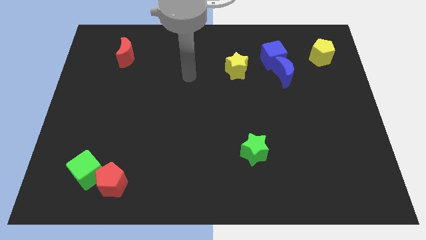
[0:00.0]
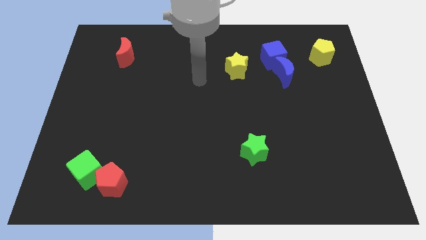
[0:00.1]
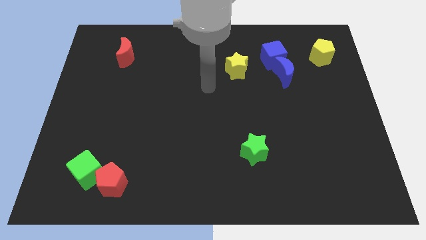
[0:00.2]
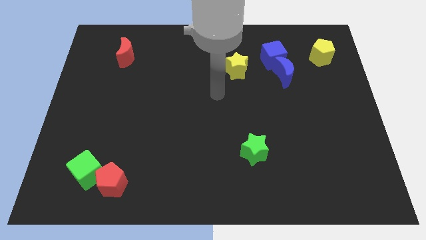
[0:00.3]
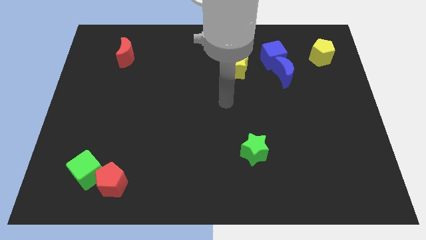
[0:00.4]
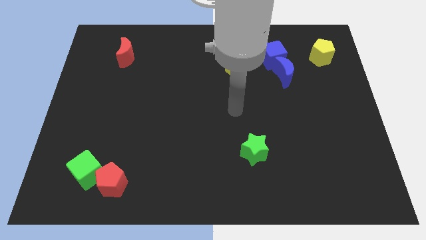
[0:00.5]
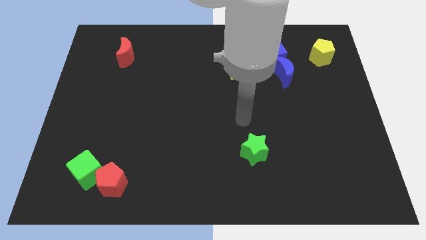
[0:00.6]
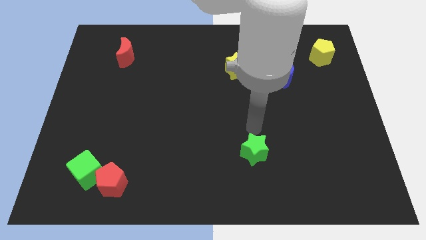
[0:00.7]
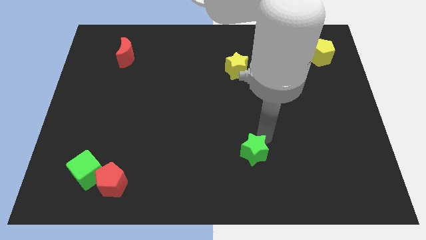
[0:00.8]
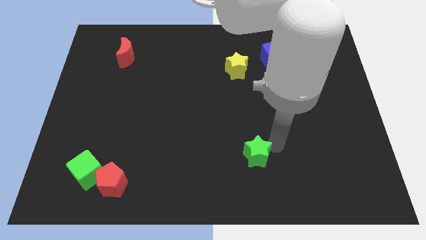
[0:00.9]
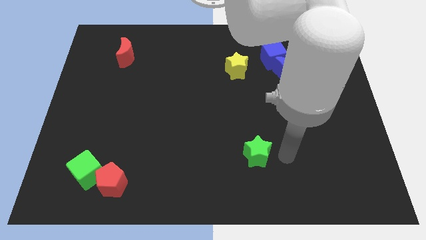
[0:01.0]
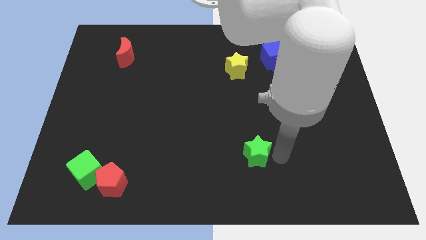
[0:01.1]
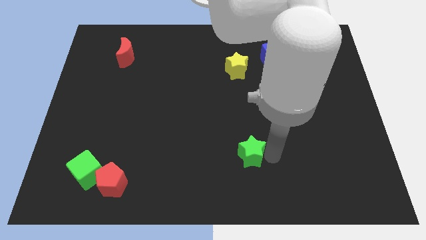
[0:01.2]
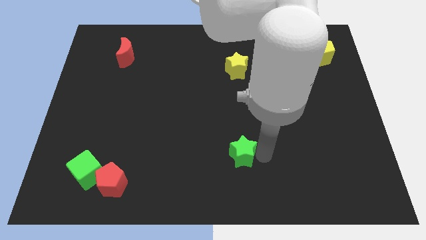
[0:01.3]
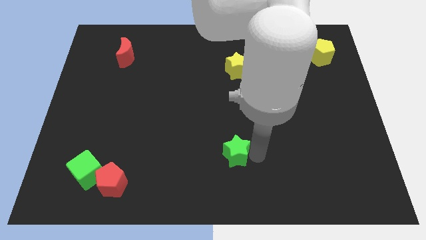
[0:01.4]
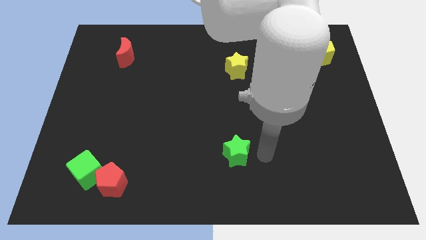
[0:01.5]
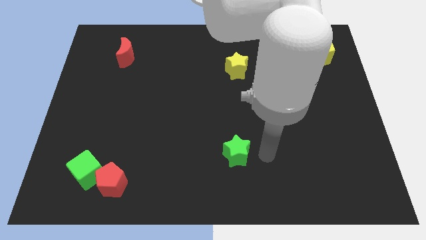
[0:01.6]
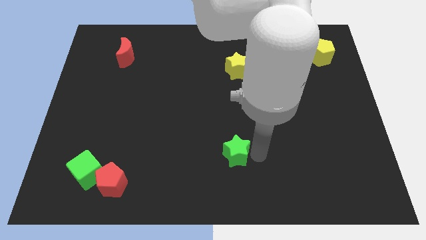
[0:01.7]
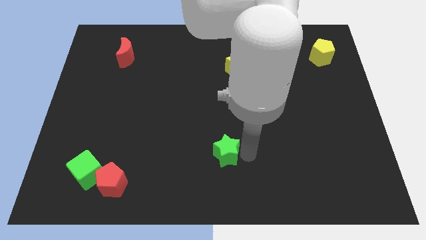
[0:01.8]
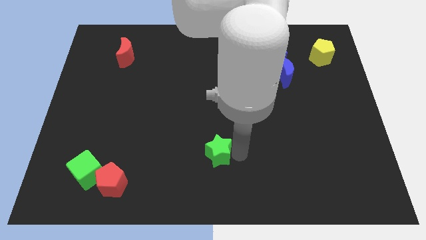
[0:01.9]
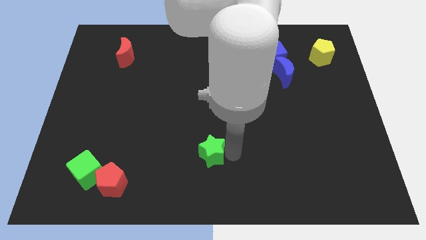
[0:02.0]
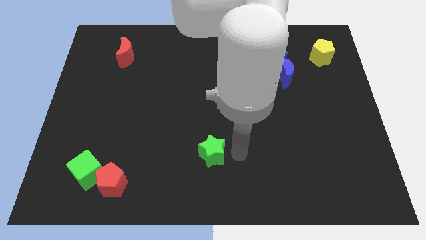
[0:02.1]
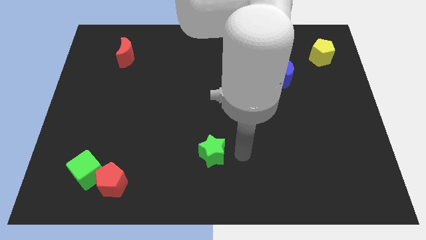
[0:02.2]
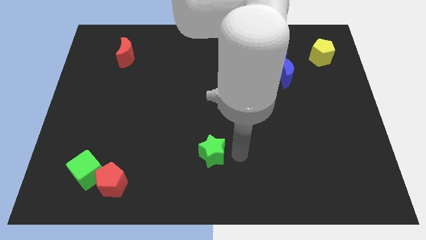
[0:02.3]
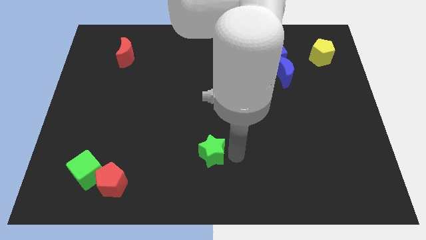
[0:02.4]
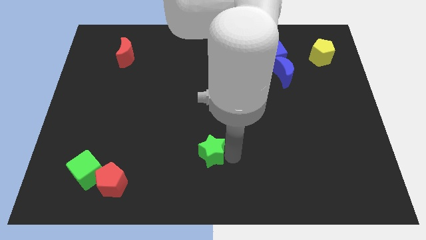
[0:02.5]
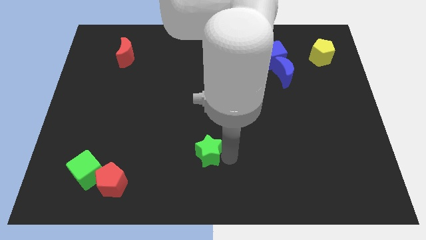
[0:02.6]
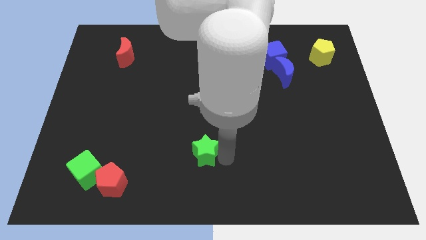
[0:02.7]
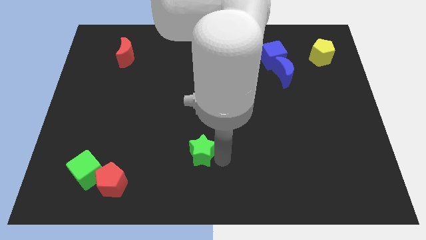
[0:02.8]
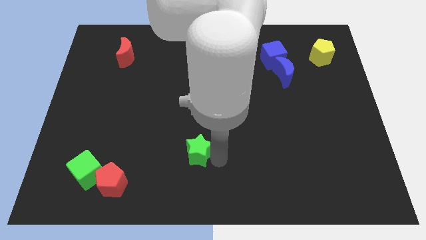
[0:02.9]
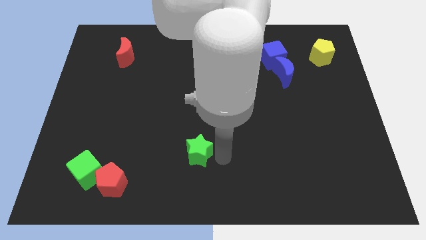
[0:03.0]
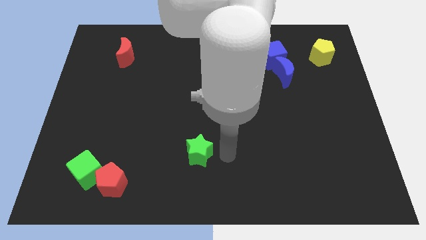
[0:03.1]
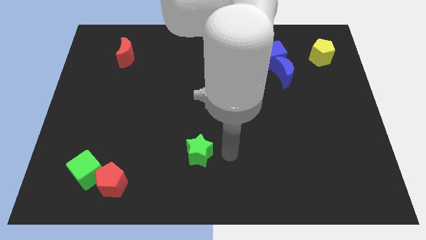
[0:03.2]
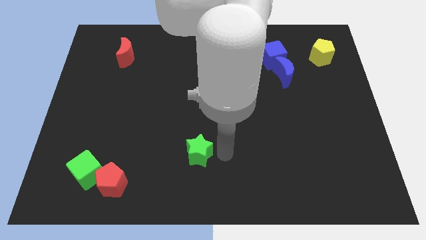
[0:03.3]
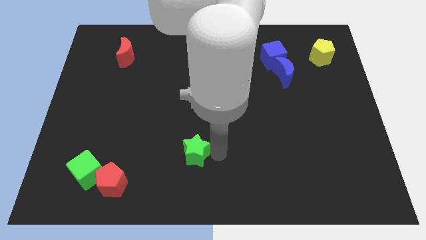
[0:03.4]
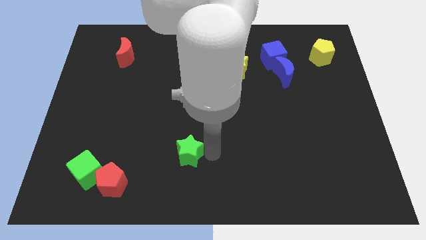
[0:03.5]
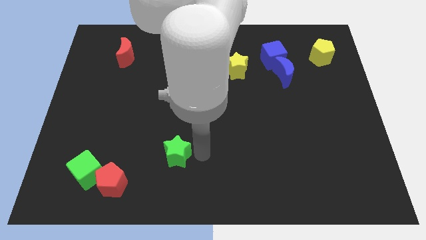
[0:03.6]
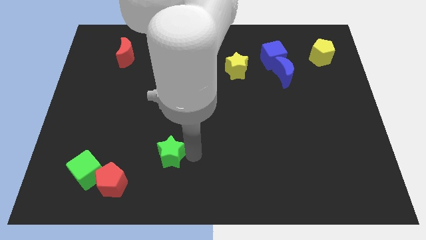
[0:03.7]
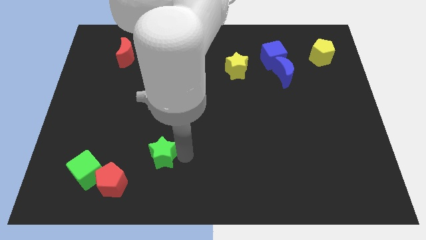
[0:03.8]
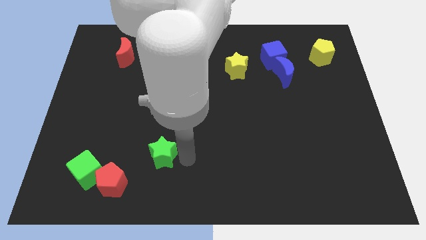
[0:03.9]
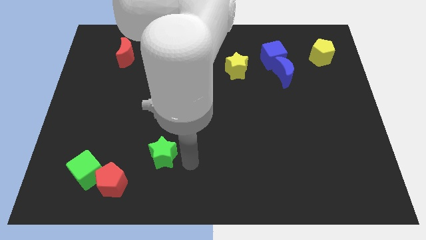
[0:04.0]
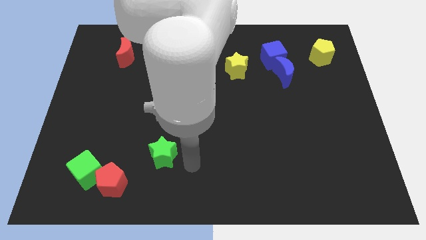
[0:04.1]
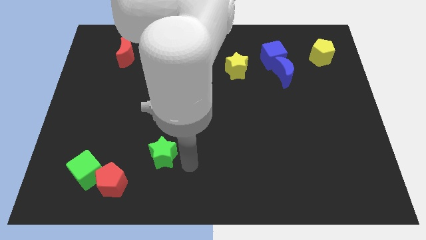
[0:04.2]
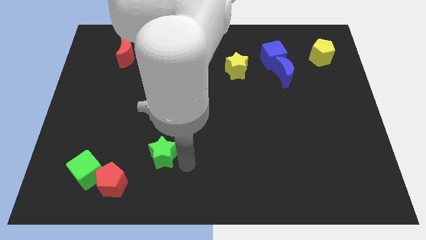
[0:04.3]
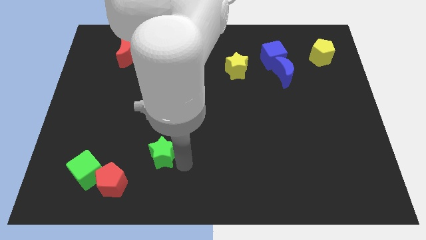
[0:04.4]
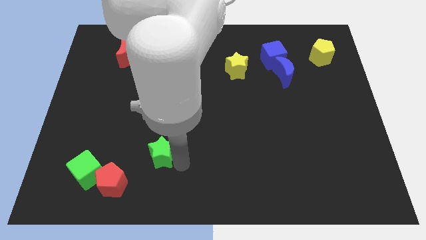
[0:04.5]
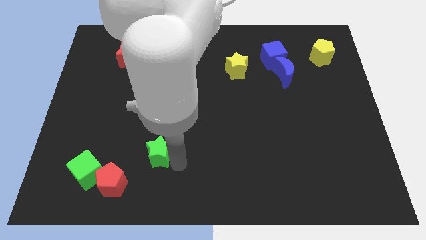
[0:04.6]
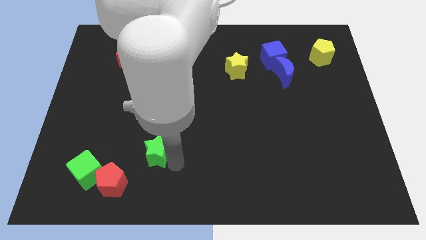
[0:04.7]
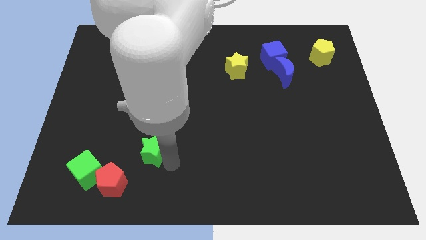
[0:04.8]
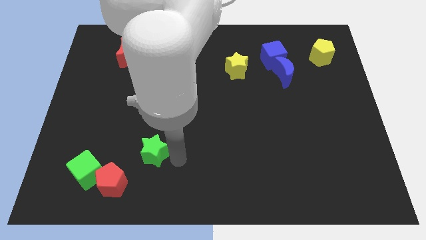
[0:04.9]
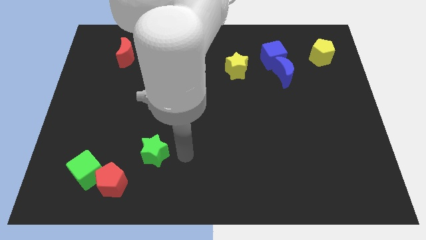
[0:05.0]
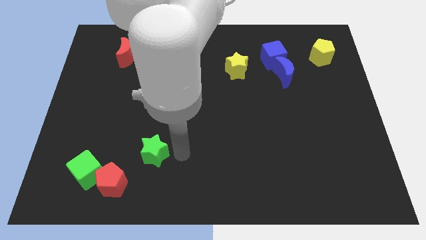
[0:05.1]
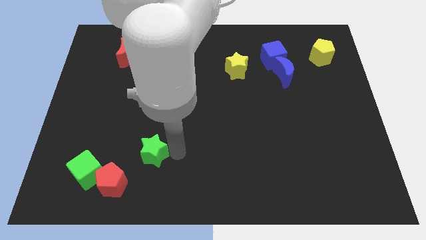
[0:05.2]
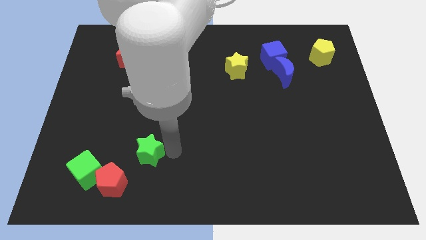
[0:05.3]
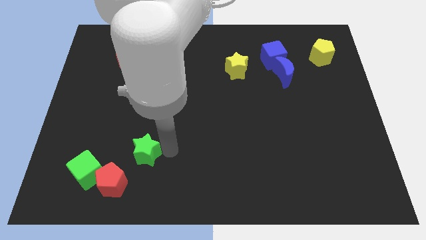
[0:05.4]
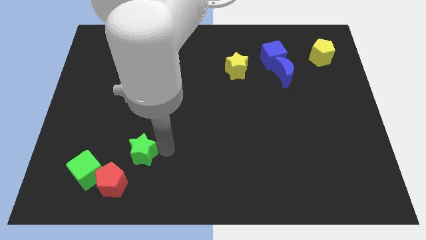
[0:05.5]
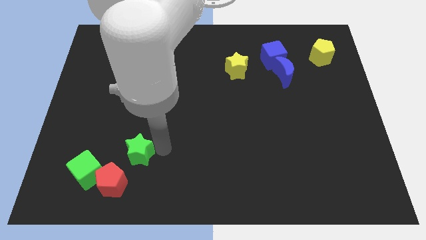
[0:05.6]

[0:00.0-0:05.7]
slide the green star to the top right of the green cube

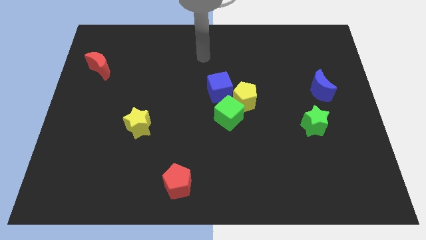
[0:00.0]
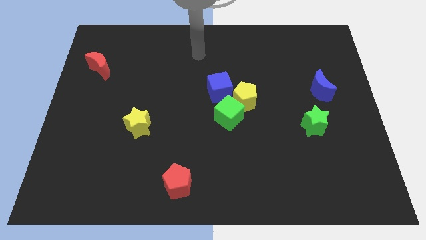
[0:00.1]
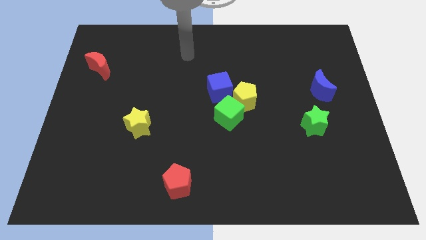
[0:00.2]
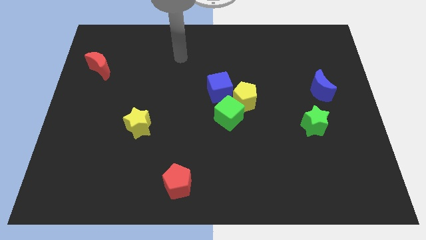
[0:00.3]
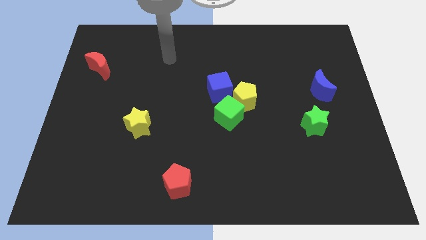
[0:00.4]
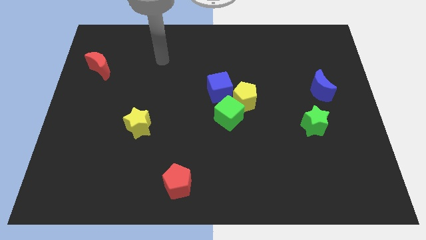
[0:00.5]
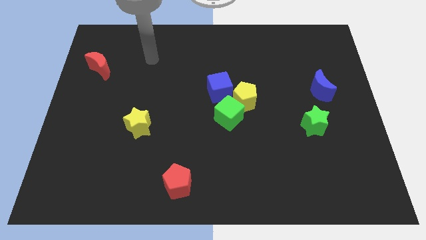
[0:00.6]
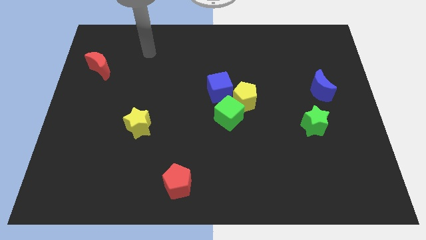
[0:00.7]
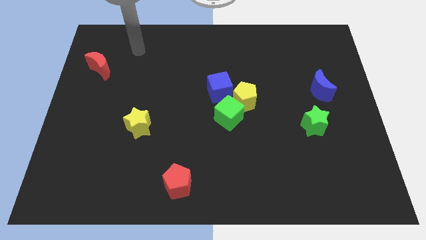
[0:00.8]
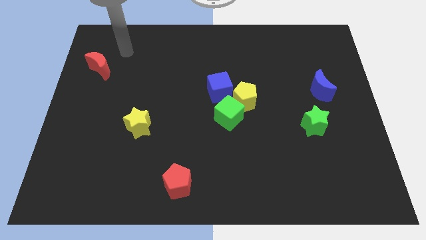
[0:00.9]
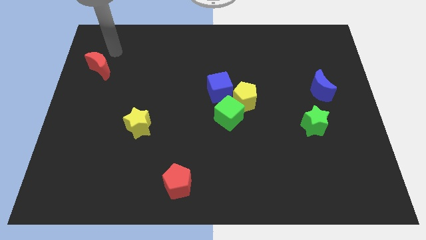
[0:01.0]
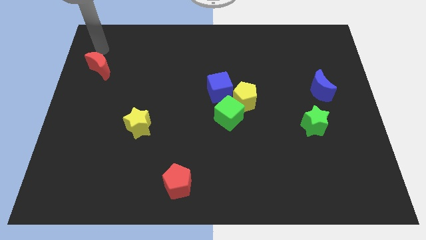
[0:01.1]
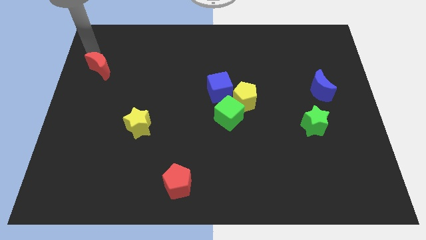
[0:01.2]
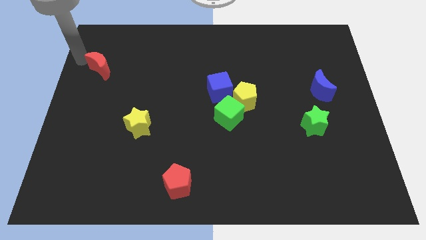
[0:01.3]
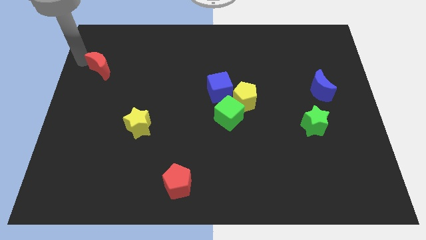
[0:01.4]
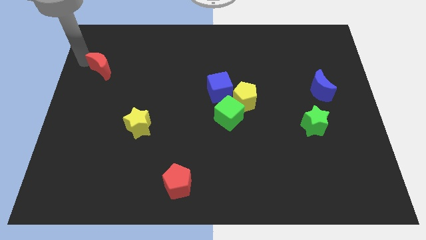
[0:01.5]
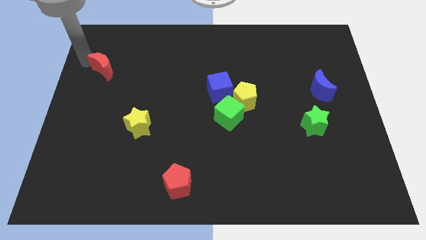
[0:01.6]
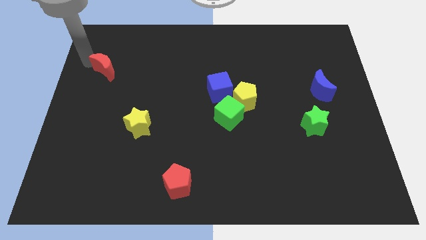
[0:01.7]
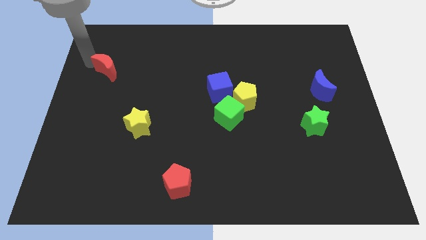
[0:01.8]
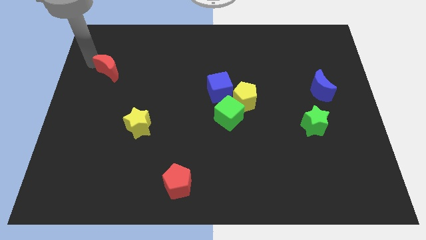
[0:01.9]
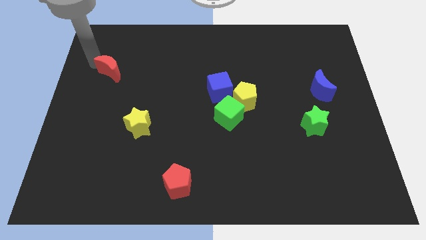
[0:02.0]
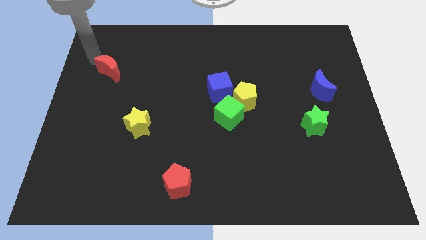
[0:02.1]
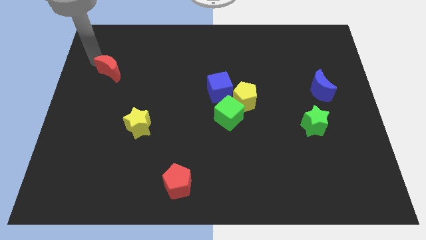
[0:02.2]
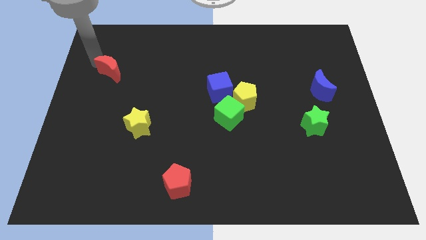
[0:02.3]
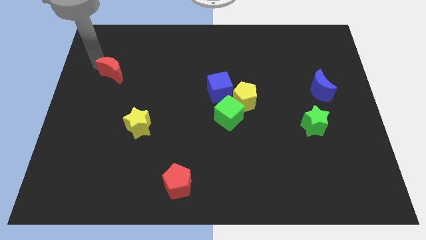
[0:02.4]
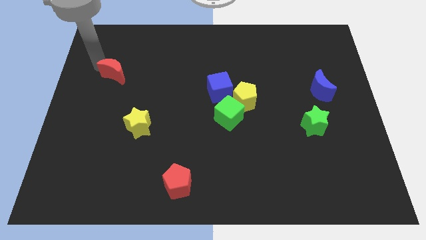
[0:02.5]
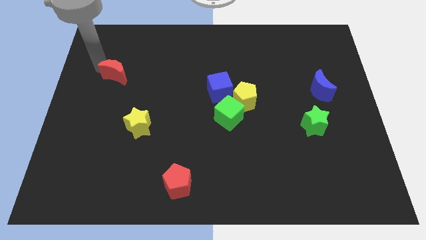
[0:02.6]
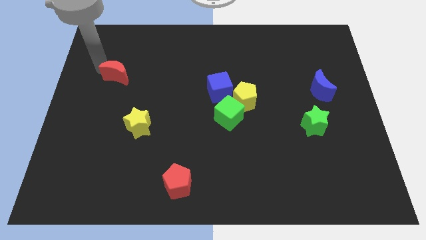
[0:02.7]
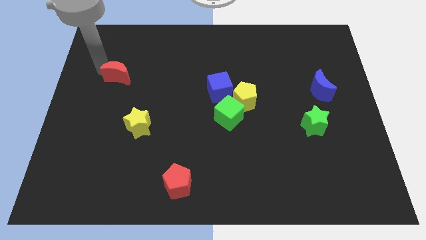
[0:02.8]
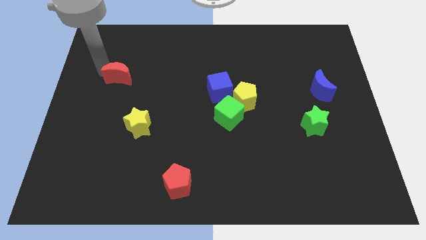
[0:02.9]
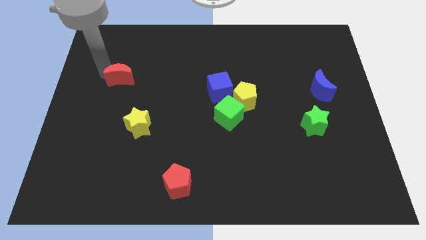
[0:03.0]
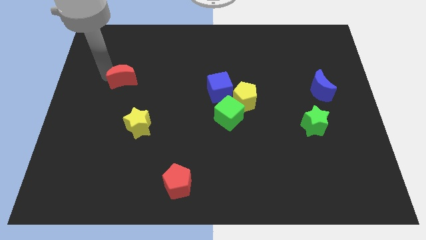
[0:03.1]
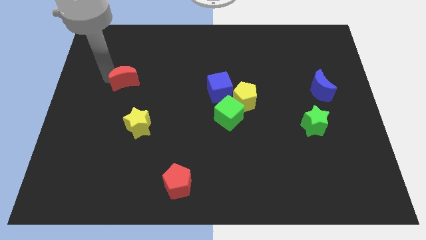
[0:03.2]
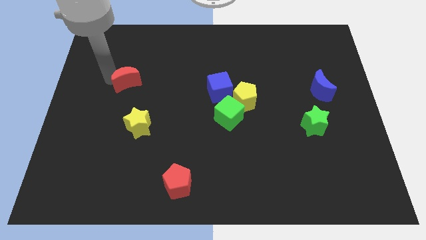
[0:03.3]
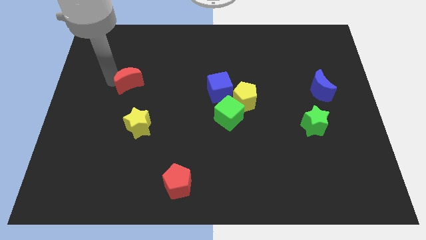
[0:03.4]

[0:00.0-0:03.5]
put the red moon to the top side of the yellow star
